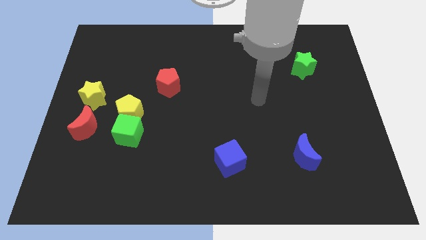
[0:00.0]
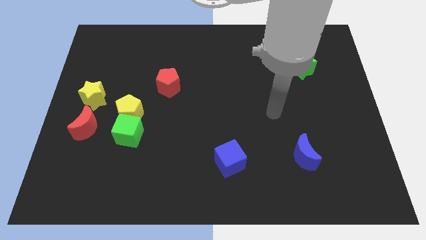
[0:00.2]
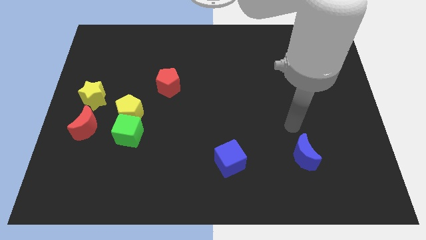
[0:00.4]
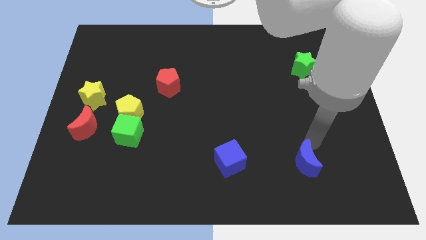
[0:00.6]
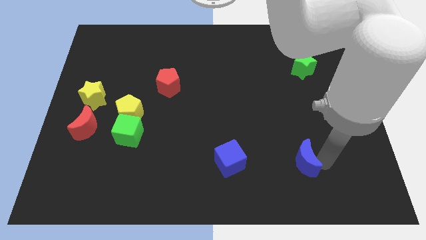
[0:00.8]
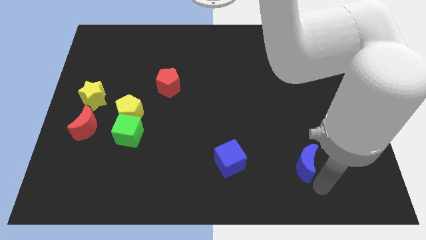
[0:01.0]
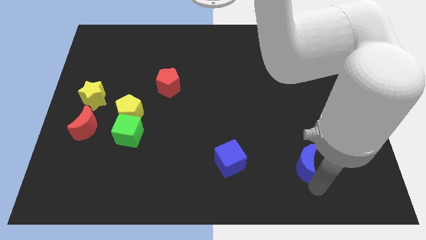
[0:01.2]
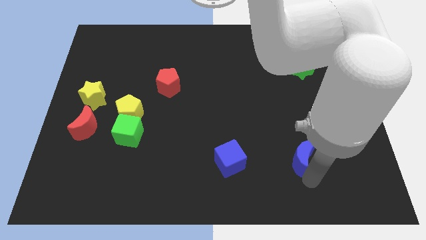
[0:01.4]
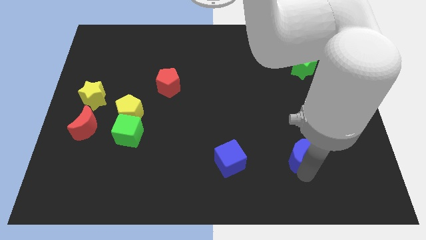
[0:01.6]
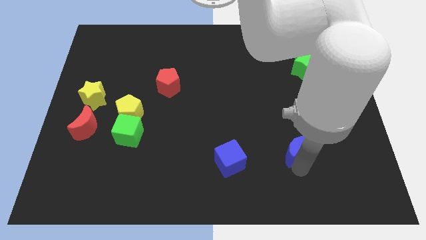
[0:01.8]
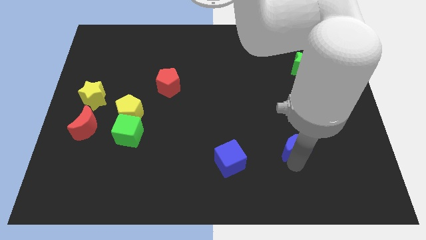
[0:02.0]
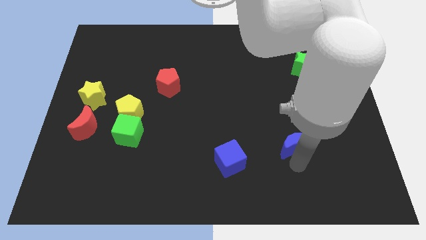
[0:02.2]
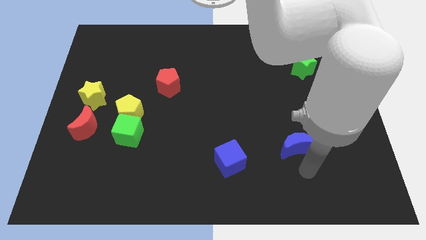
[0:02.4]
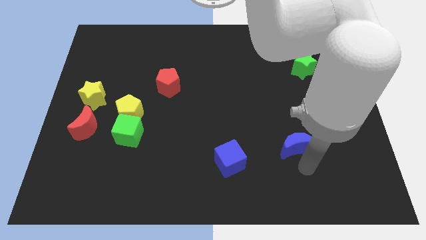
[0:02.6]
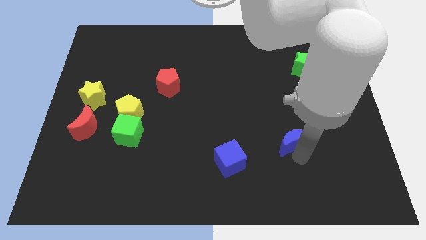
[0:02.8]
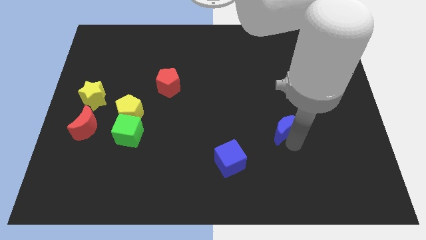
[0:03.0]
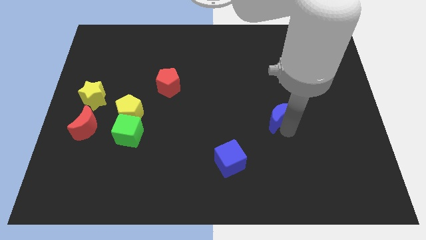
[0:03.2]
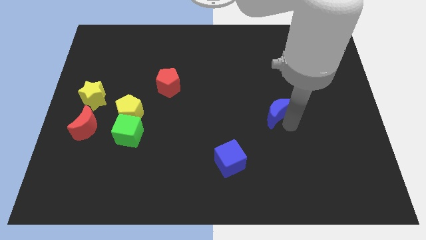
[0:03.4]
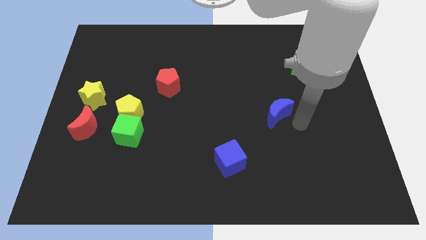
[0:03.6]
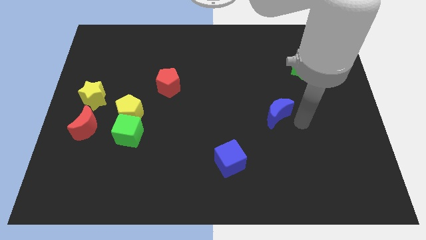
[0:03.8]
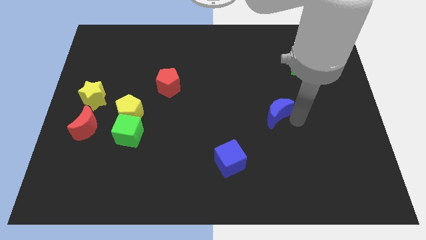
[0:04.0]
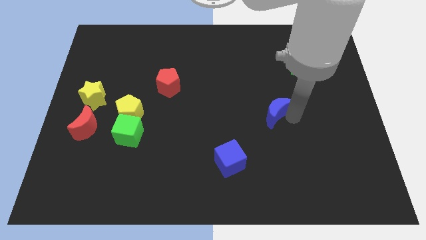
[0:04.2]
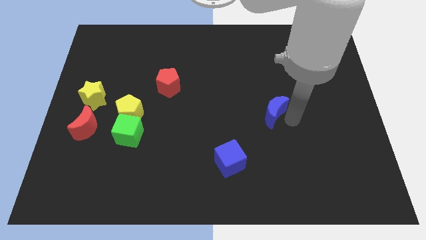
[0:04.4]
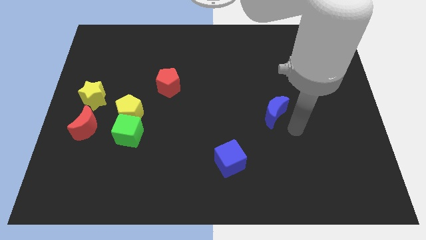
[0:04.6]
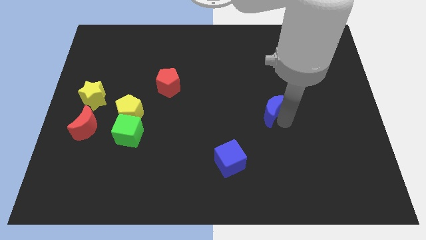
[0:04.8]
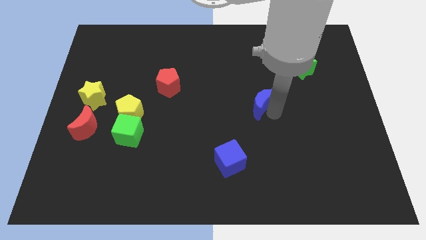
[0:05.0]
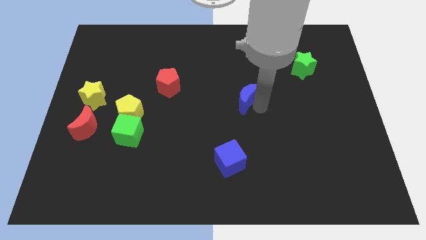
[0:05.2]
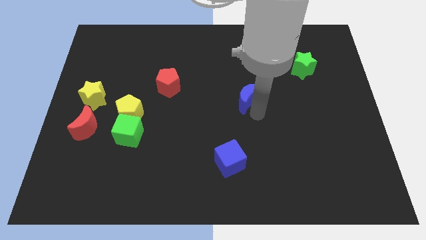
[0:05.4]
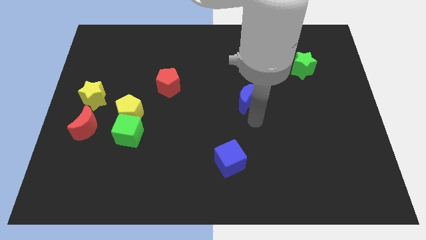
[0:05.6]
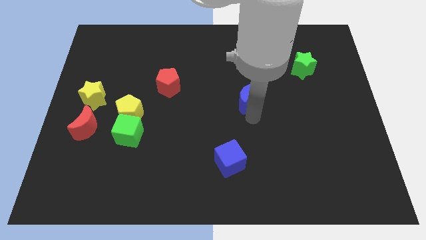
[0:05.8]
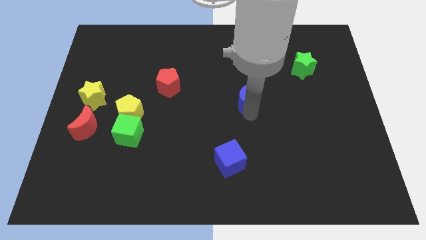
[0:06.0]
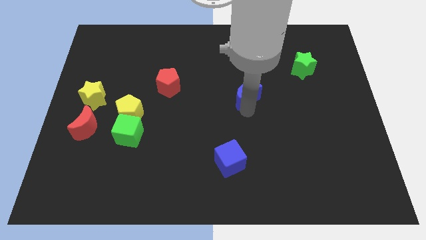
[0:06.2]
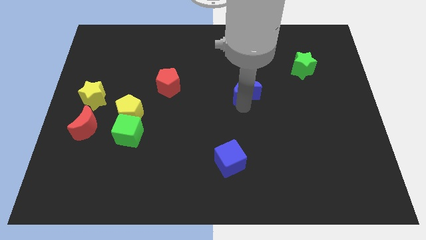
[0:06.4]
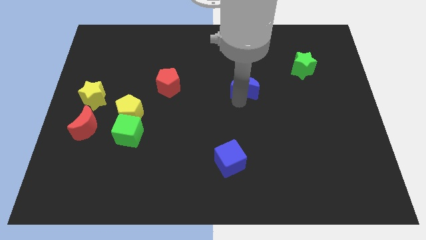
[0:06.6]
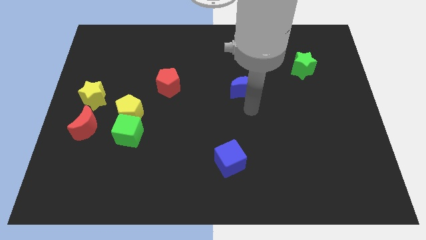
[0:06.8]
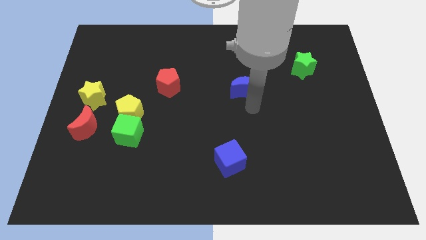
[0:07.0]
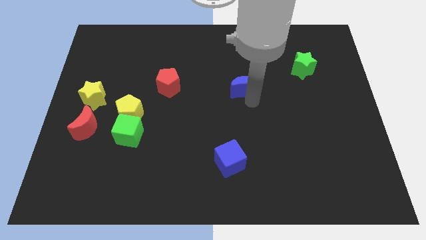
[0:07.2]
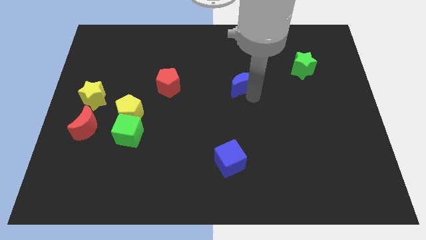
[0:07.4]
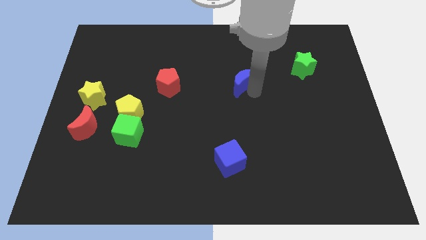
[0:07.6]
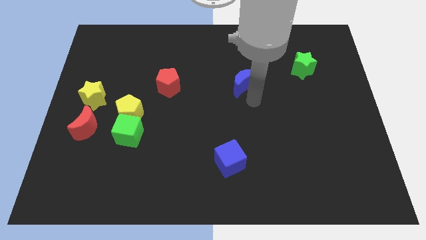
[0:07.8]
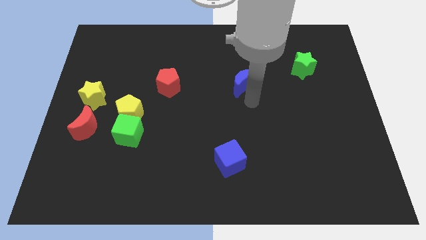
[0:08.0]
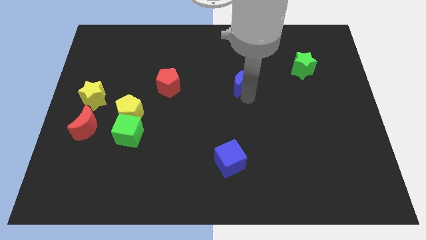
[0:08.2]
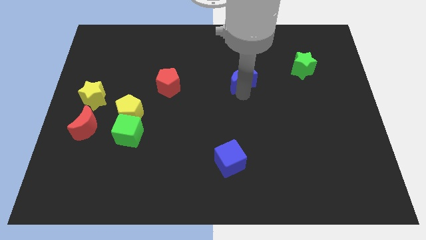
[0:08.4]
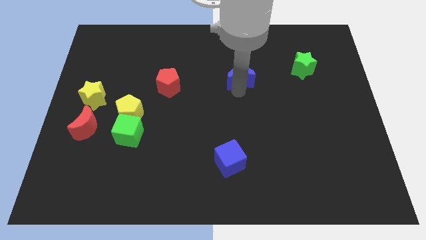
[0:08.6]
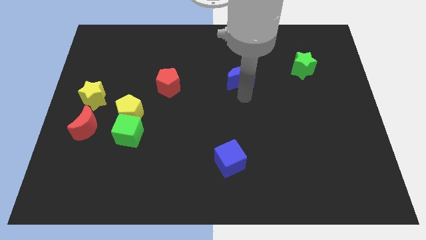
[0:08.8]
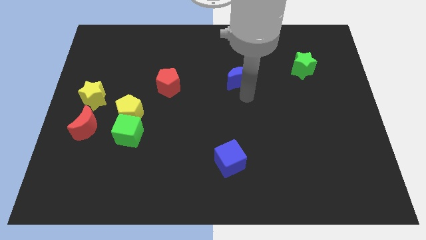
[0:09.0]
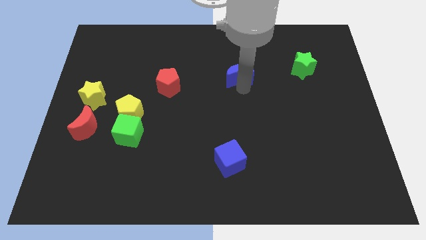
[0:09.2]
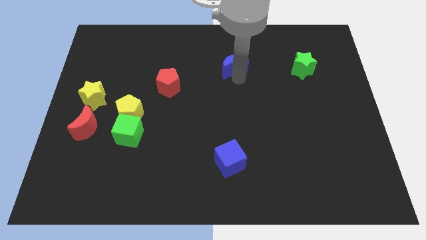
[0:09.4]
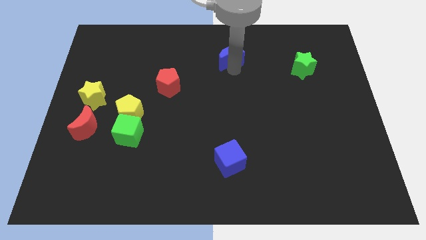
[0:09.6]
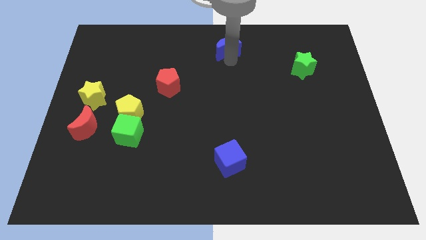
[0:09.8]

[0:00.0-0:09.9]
slide the blue moon to the top

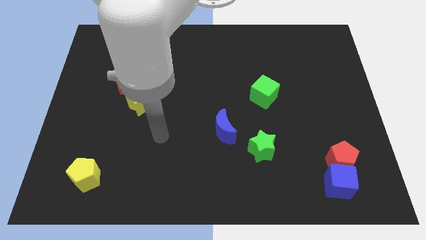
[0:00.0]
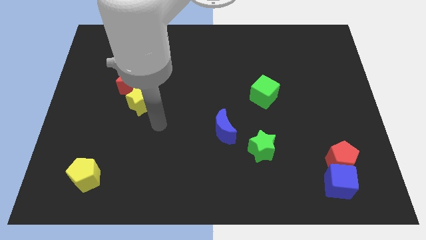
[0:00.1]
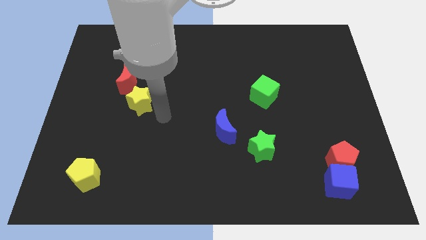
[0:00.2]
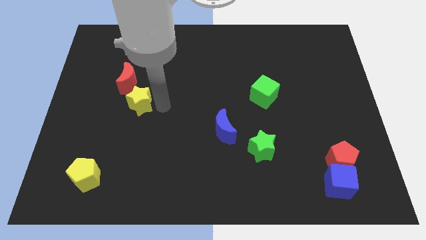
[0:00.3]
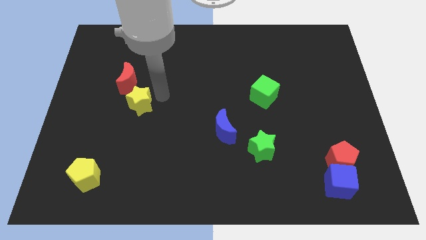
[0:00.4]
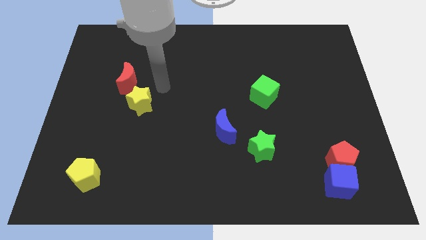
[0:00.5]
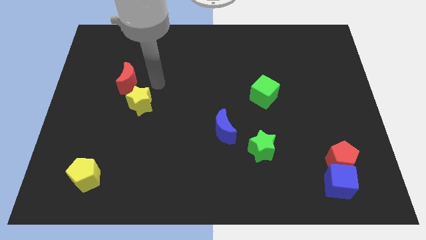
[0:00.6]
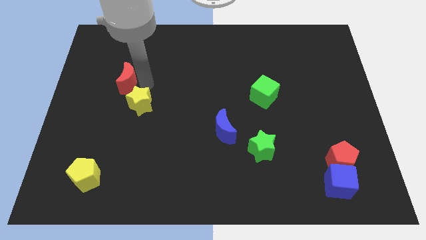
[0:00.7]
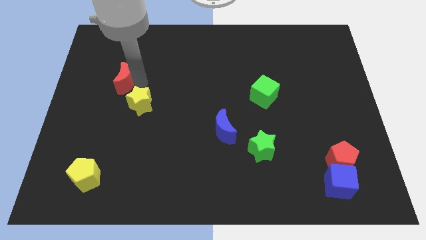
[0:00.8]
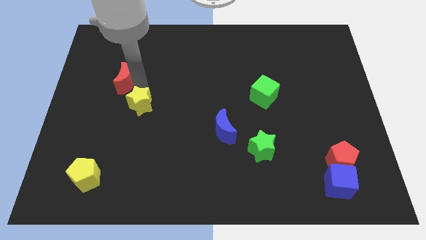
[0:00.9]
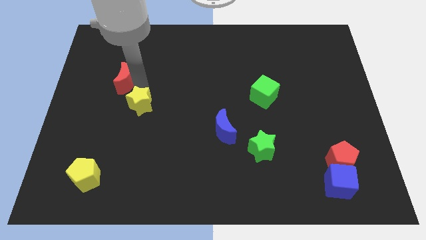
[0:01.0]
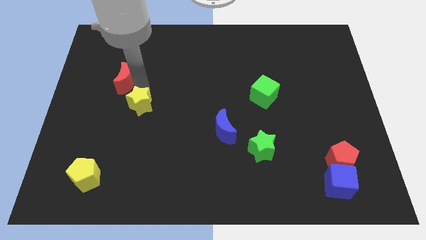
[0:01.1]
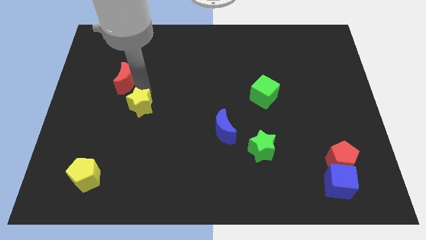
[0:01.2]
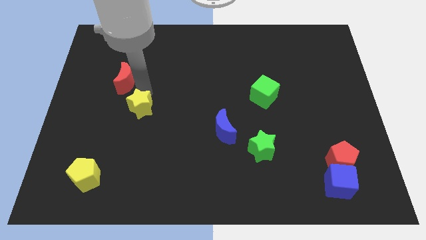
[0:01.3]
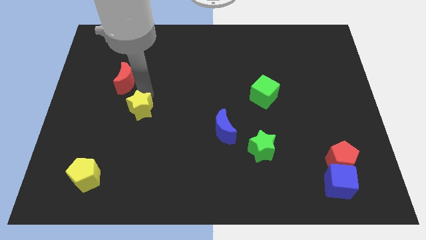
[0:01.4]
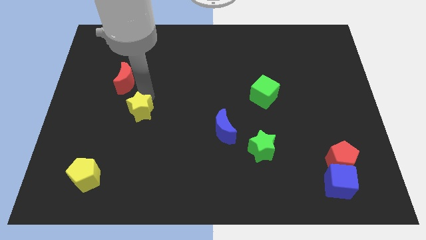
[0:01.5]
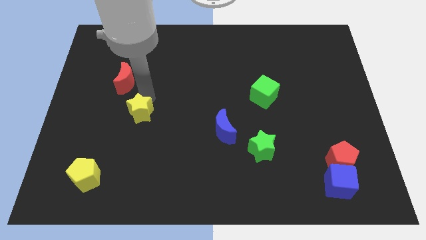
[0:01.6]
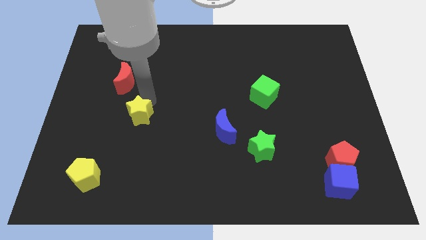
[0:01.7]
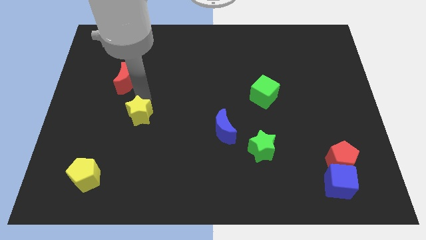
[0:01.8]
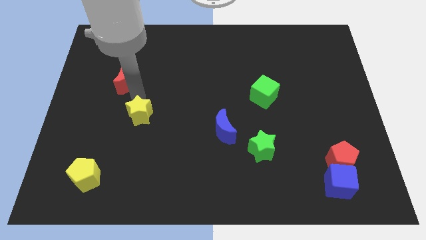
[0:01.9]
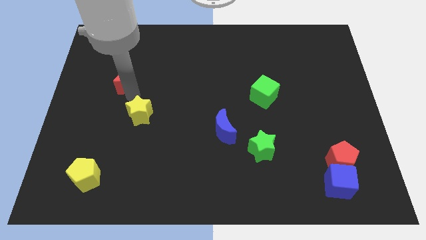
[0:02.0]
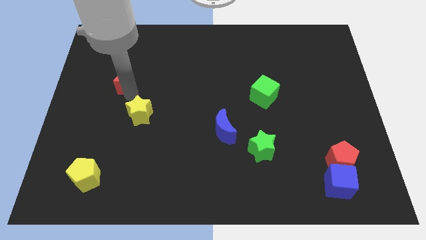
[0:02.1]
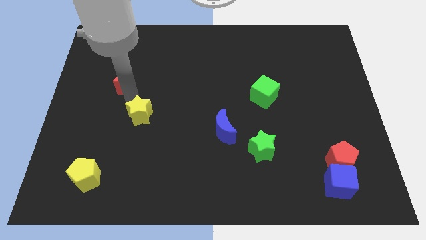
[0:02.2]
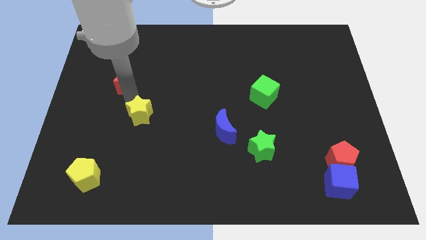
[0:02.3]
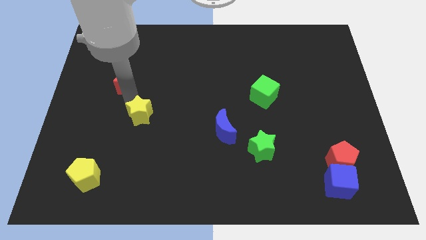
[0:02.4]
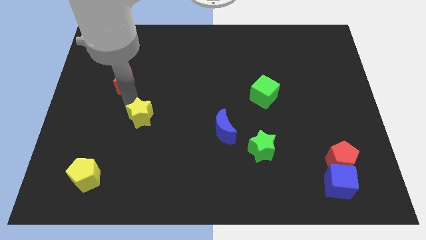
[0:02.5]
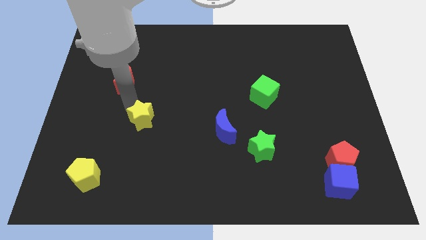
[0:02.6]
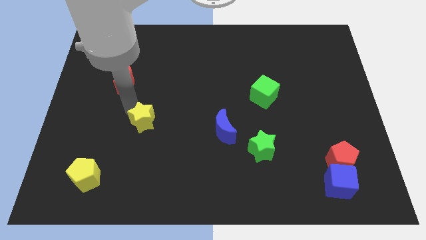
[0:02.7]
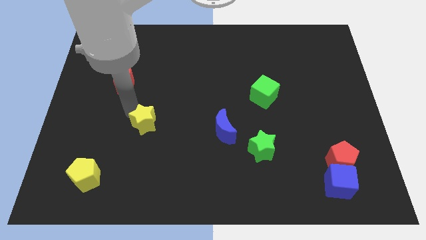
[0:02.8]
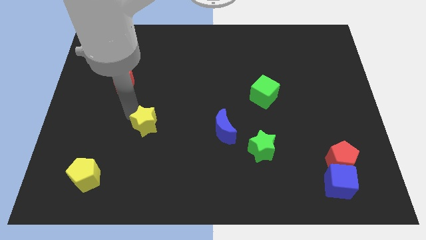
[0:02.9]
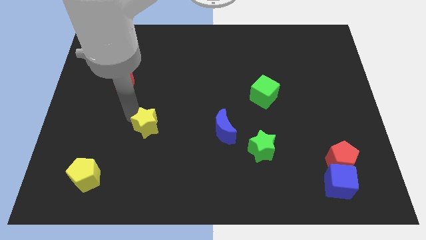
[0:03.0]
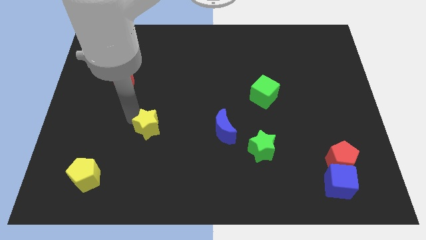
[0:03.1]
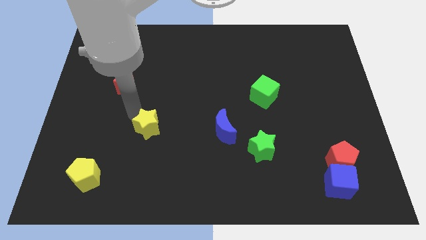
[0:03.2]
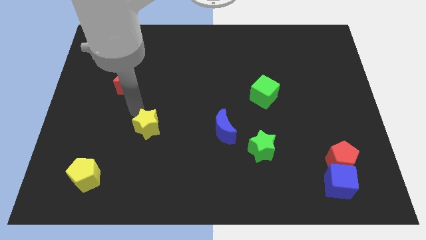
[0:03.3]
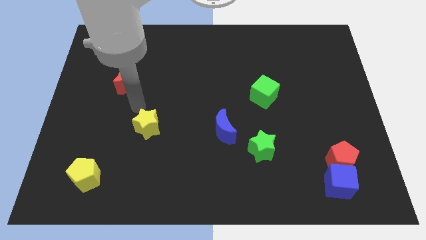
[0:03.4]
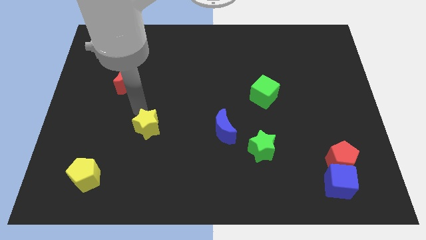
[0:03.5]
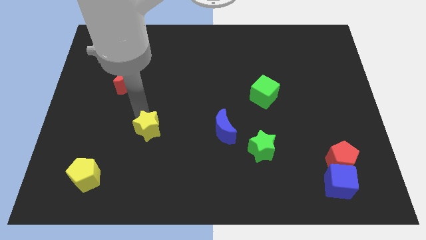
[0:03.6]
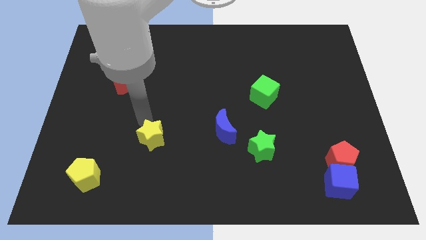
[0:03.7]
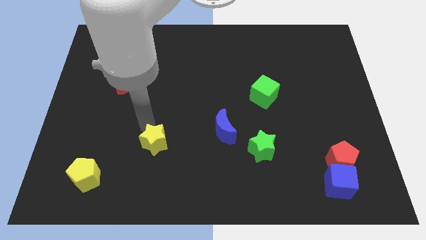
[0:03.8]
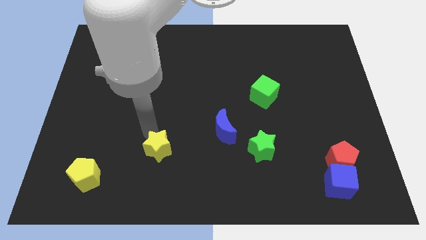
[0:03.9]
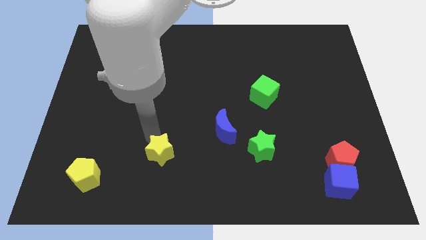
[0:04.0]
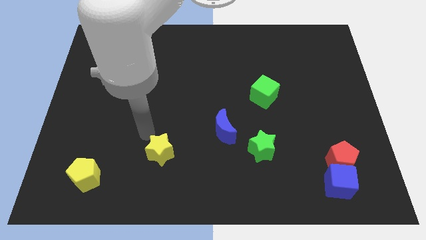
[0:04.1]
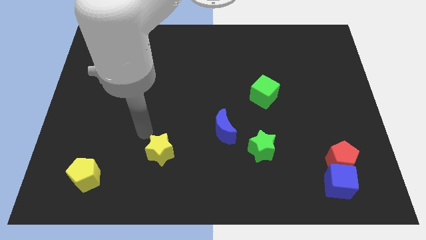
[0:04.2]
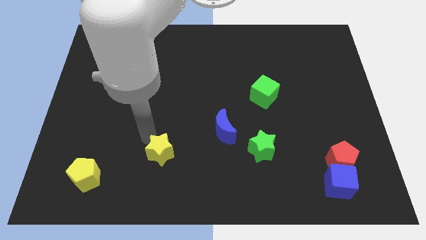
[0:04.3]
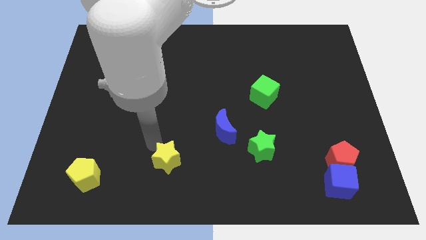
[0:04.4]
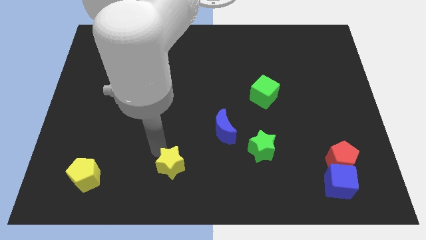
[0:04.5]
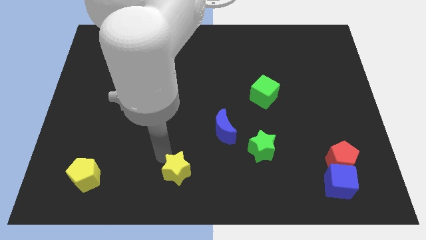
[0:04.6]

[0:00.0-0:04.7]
push the yellow star to the bottom side
